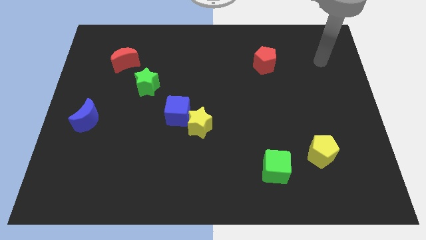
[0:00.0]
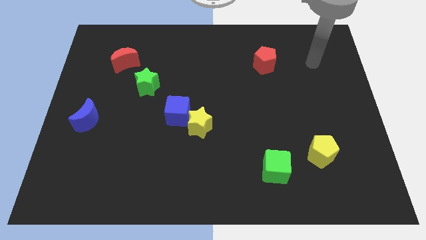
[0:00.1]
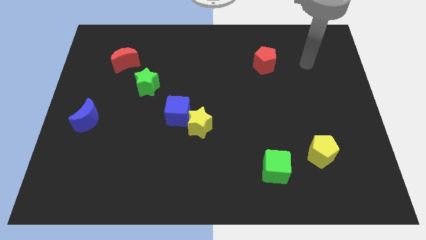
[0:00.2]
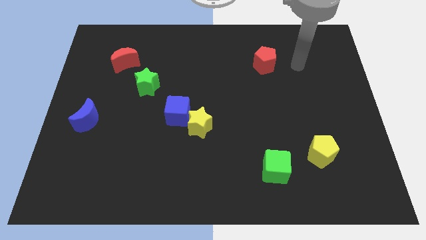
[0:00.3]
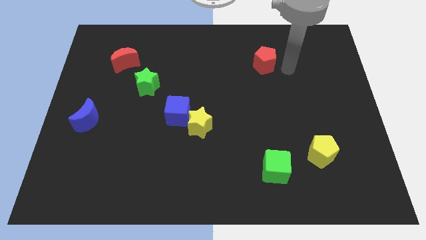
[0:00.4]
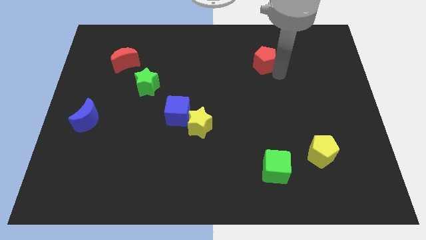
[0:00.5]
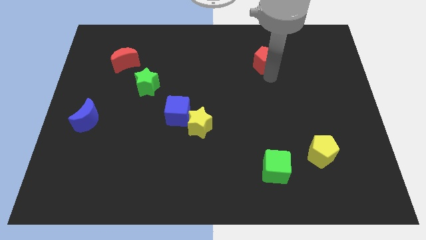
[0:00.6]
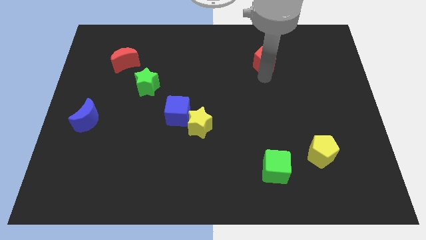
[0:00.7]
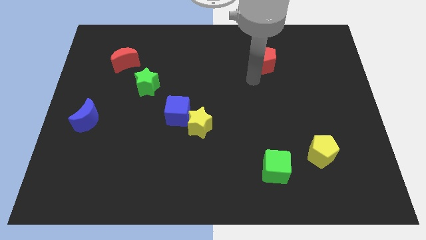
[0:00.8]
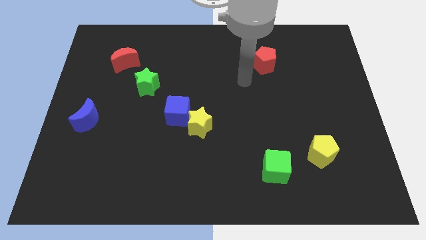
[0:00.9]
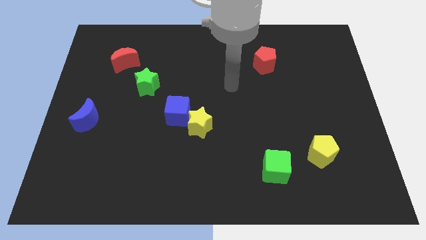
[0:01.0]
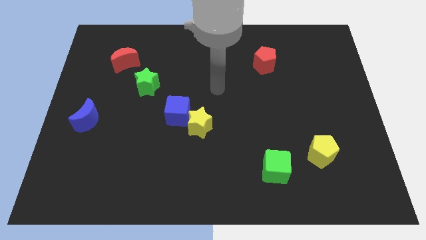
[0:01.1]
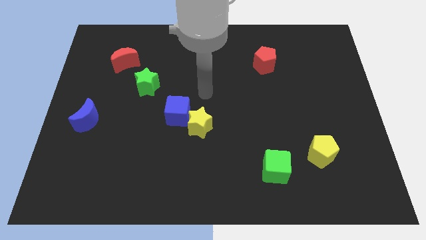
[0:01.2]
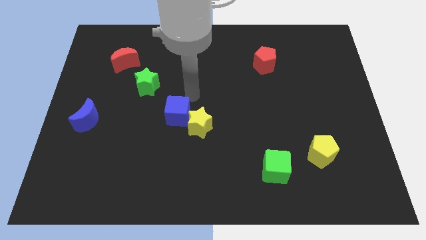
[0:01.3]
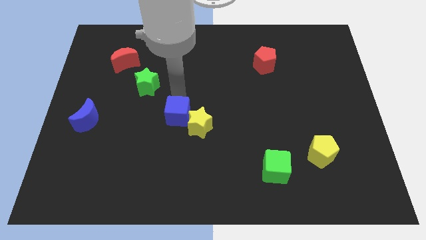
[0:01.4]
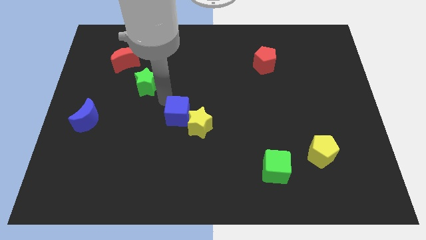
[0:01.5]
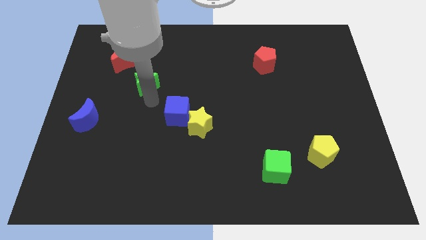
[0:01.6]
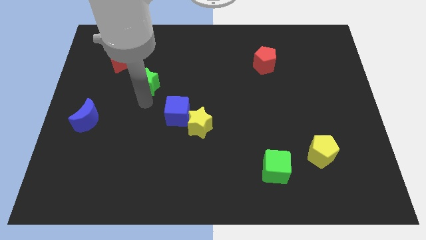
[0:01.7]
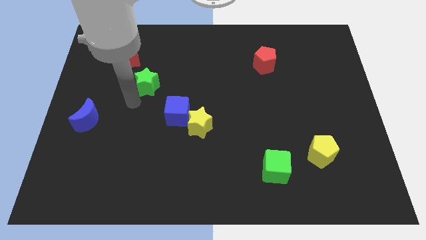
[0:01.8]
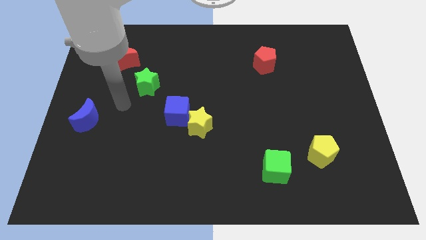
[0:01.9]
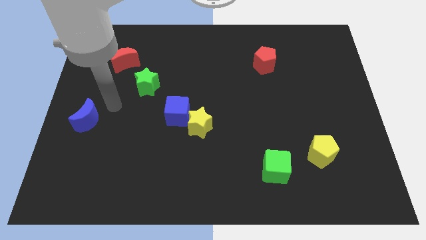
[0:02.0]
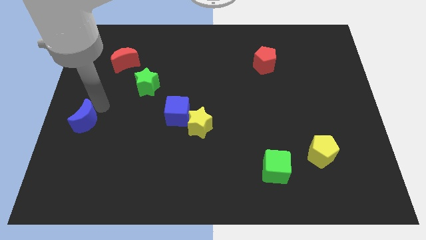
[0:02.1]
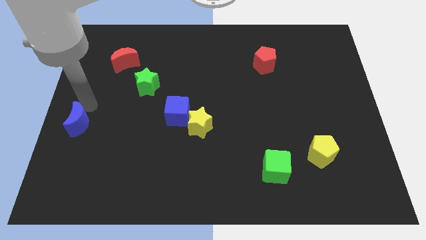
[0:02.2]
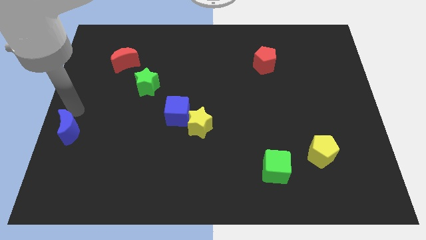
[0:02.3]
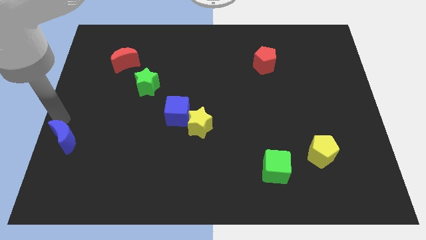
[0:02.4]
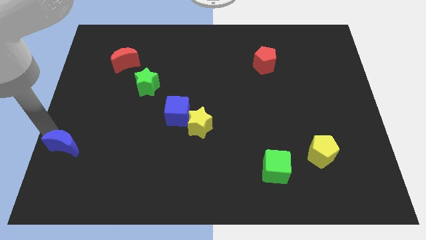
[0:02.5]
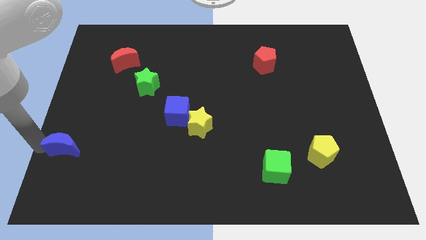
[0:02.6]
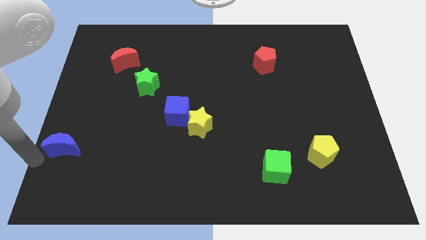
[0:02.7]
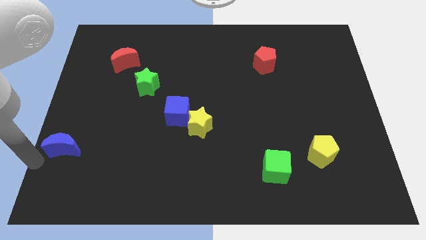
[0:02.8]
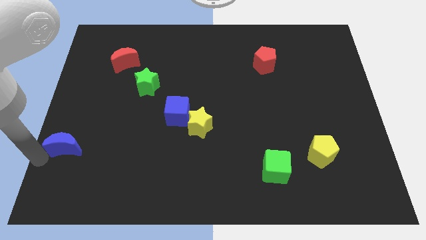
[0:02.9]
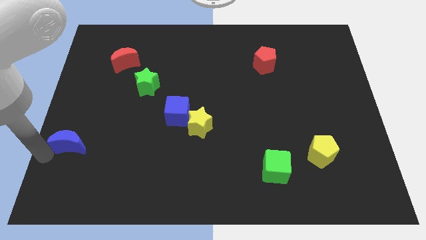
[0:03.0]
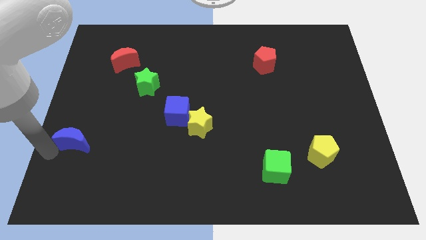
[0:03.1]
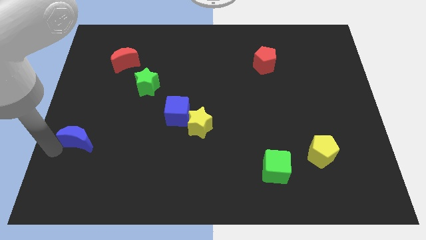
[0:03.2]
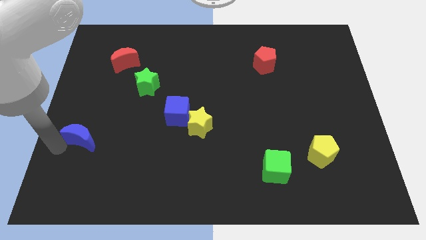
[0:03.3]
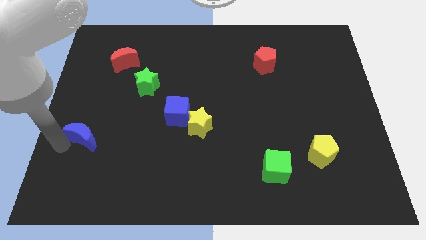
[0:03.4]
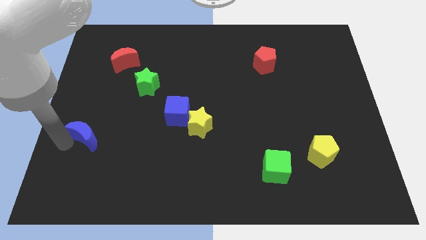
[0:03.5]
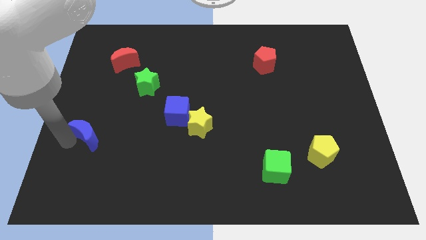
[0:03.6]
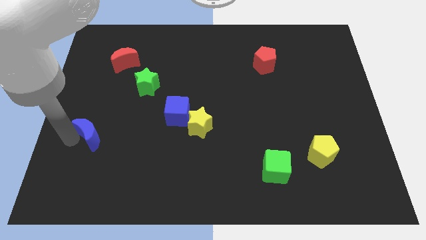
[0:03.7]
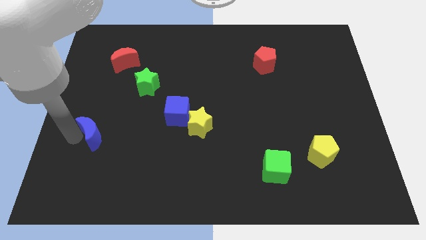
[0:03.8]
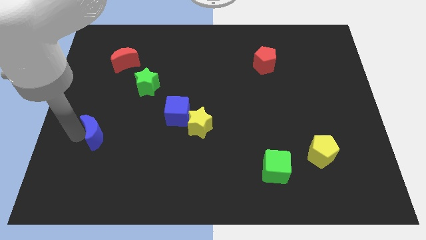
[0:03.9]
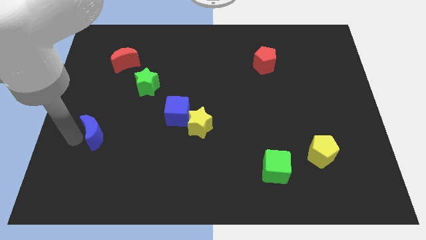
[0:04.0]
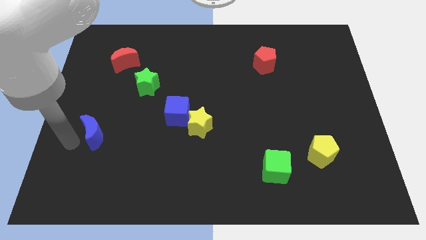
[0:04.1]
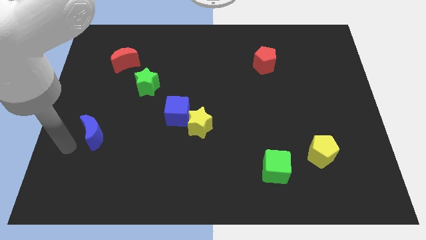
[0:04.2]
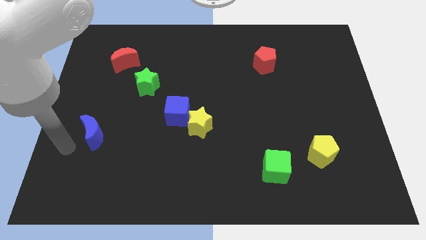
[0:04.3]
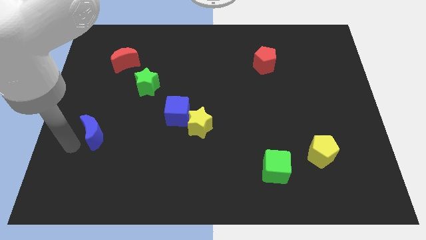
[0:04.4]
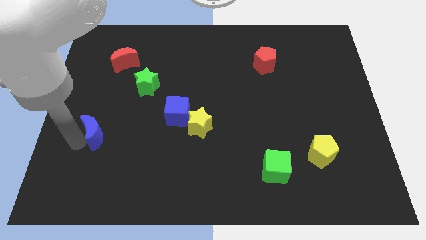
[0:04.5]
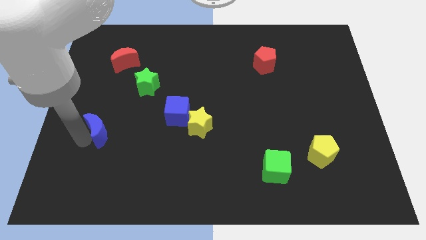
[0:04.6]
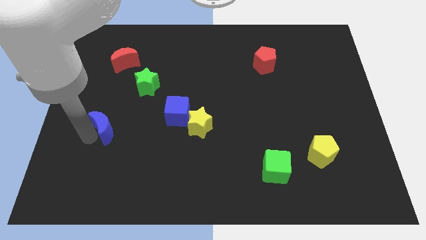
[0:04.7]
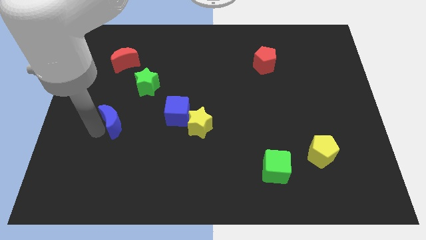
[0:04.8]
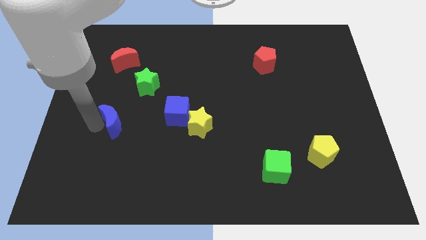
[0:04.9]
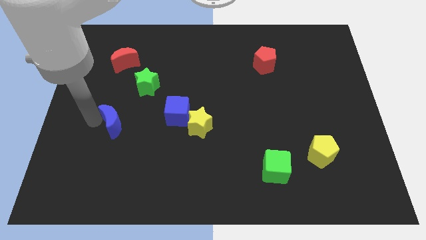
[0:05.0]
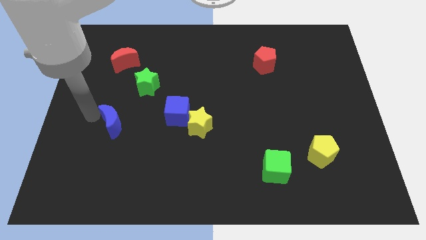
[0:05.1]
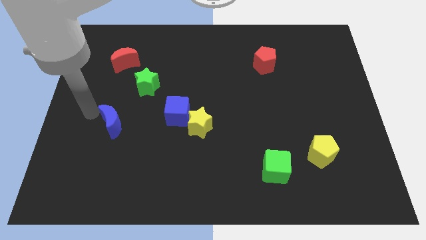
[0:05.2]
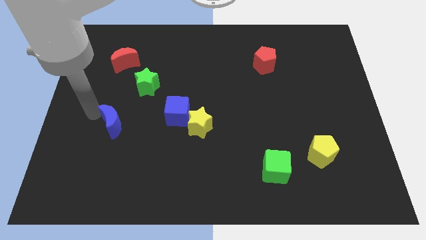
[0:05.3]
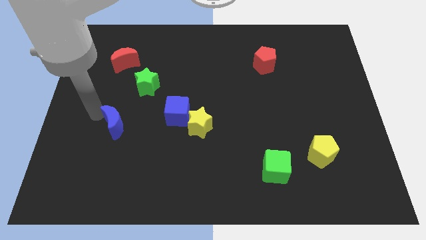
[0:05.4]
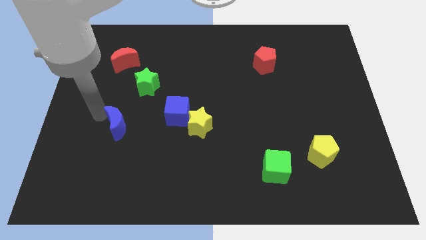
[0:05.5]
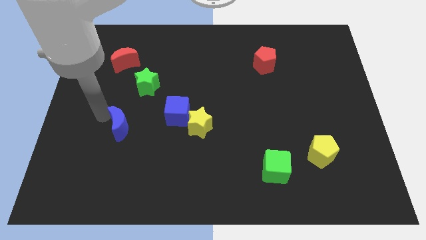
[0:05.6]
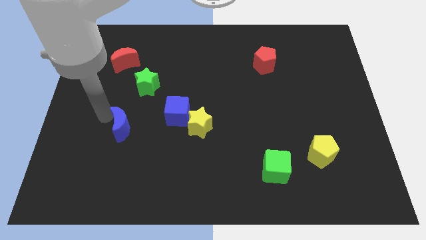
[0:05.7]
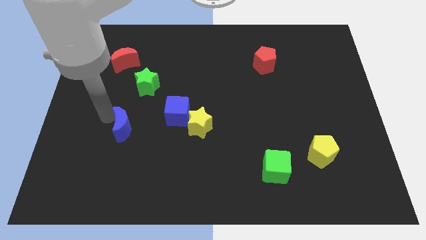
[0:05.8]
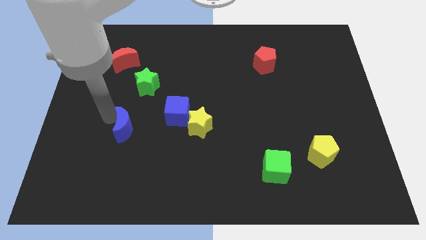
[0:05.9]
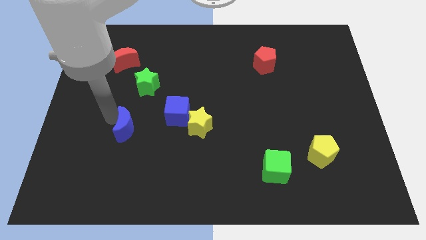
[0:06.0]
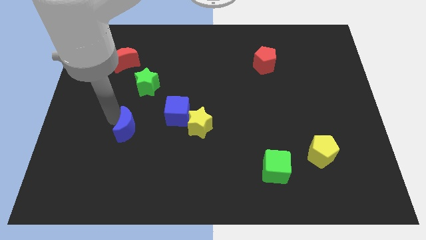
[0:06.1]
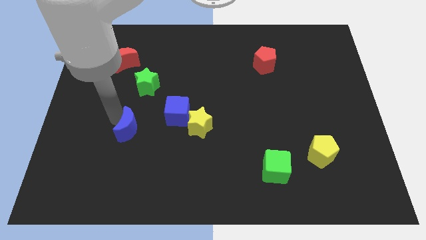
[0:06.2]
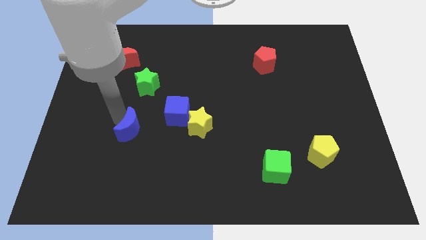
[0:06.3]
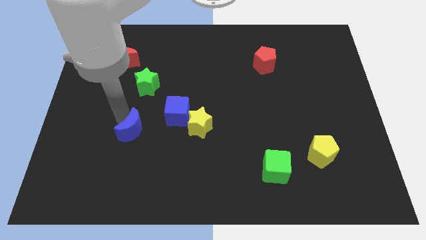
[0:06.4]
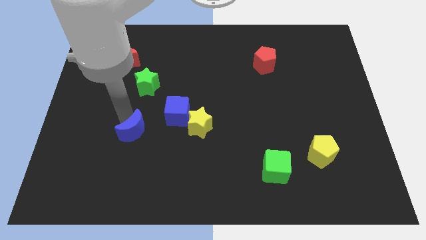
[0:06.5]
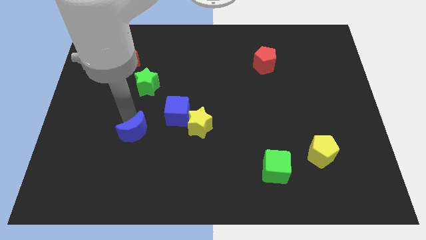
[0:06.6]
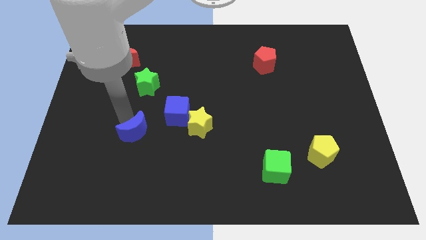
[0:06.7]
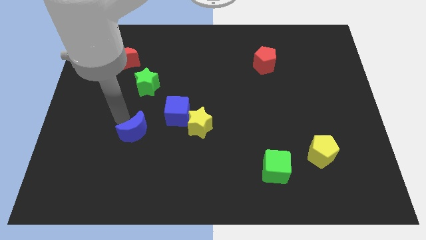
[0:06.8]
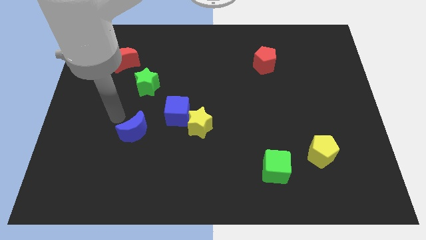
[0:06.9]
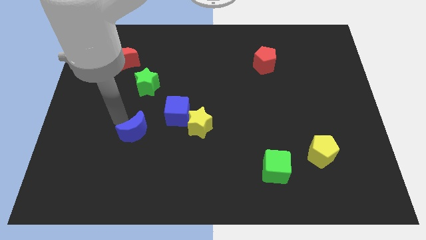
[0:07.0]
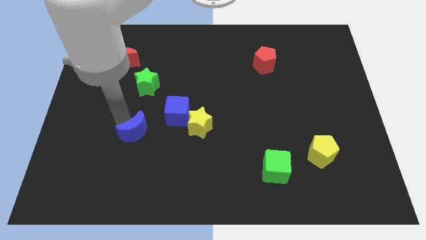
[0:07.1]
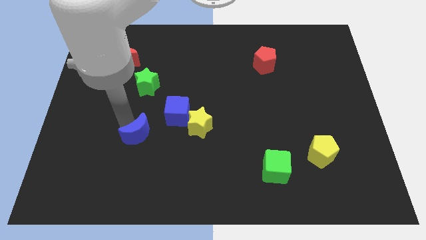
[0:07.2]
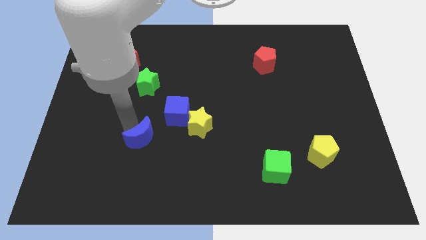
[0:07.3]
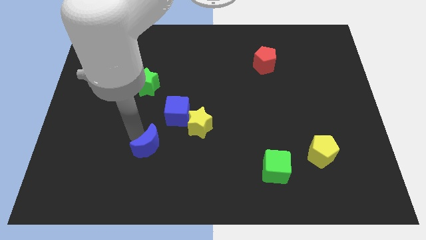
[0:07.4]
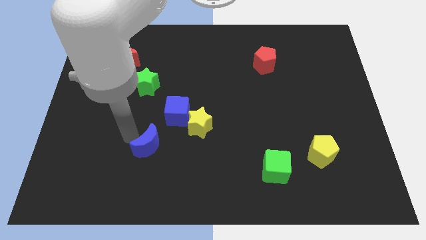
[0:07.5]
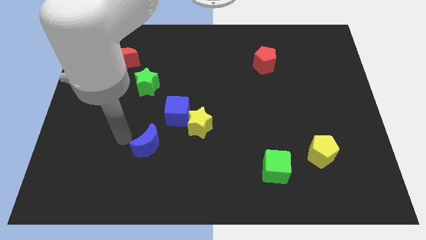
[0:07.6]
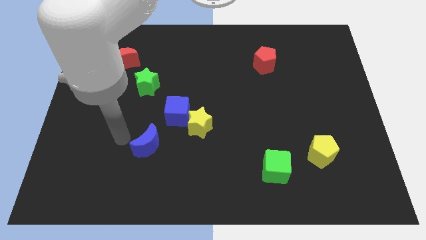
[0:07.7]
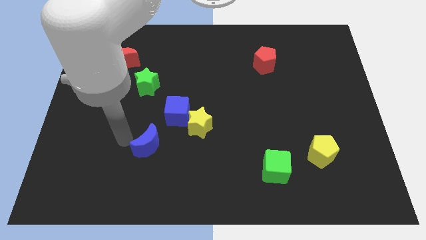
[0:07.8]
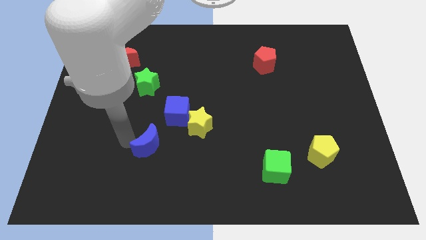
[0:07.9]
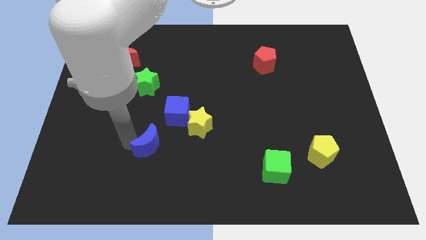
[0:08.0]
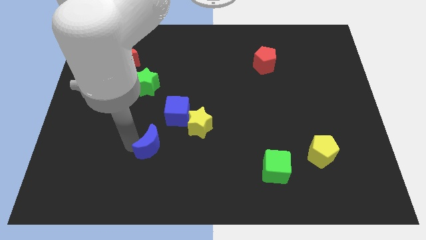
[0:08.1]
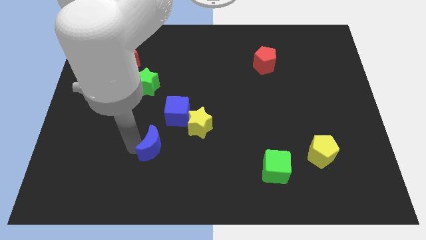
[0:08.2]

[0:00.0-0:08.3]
push the blue moon to the bottom of the blue cube
